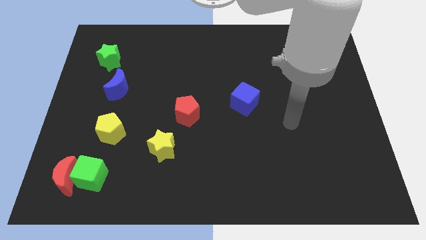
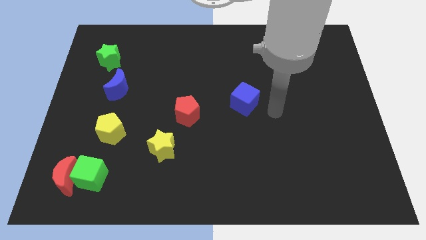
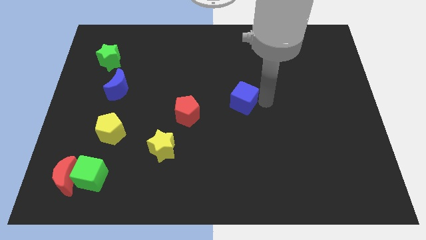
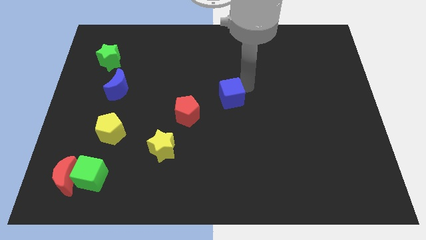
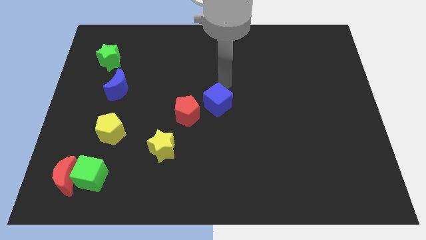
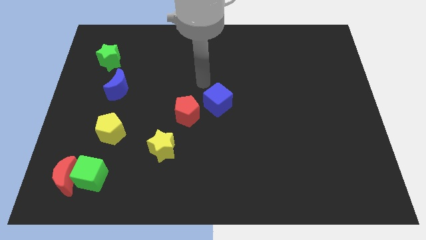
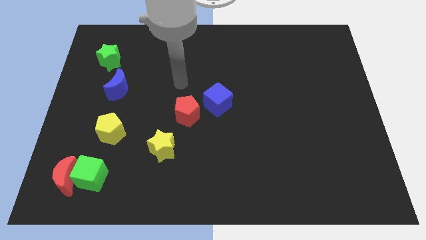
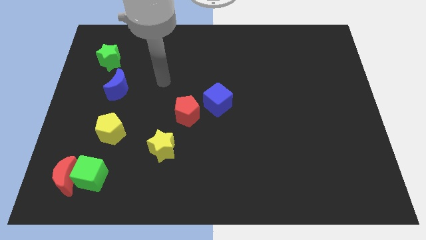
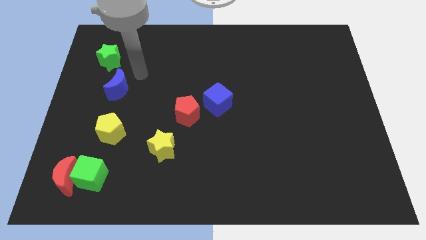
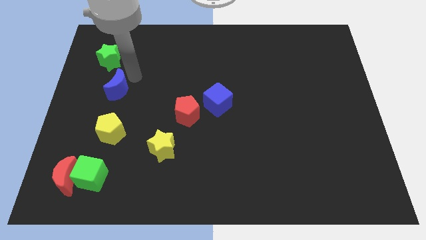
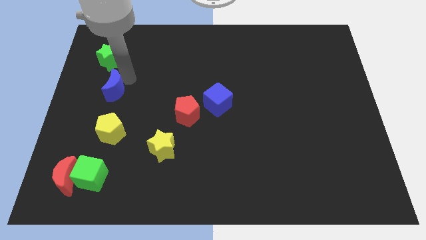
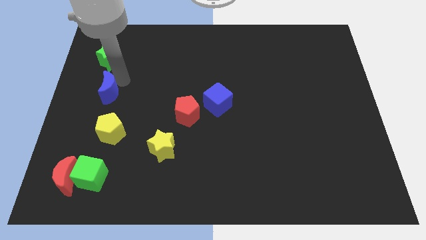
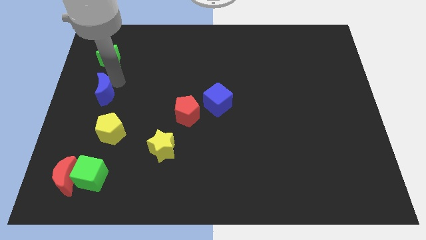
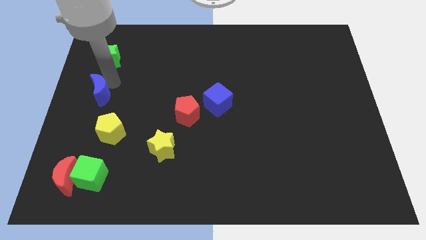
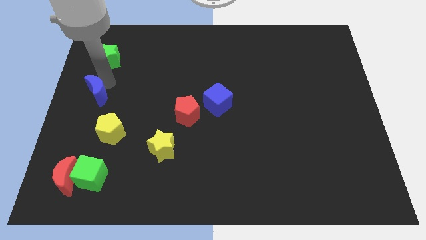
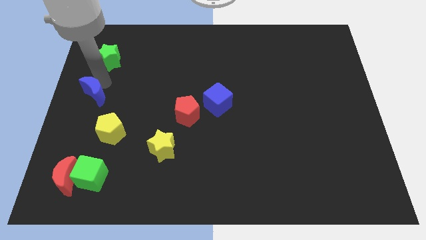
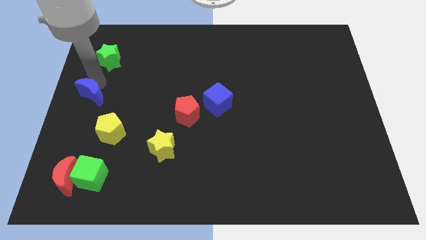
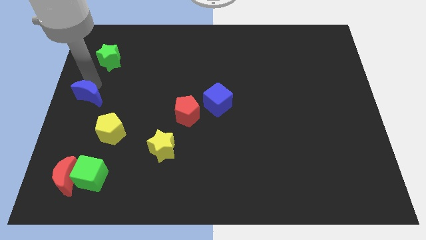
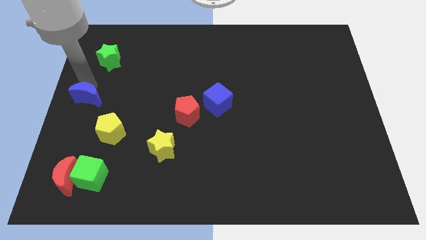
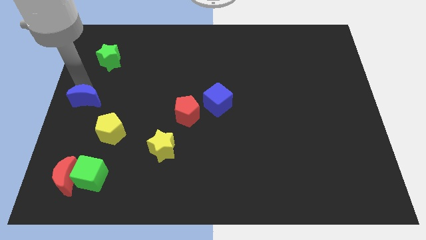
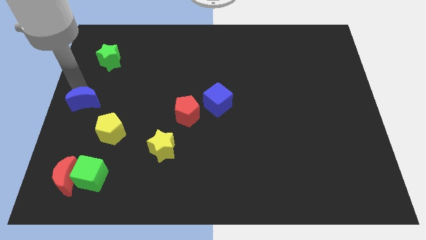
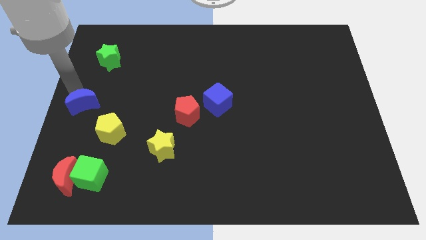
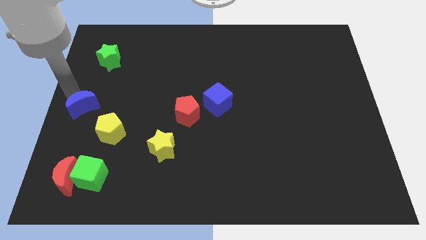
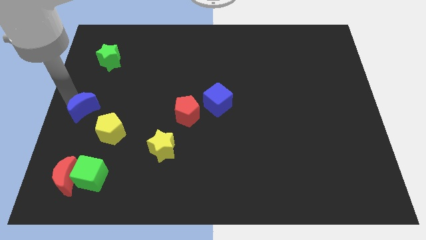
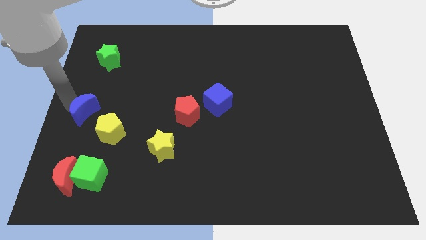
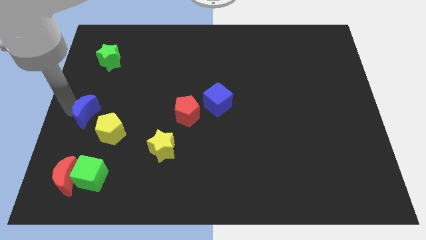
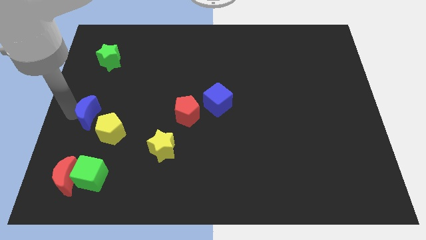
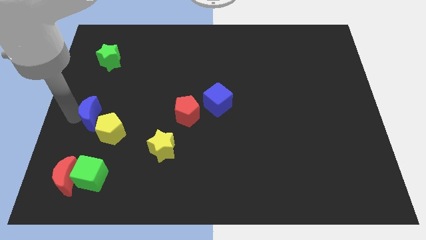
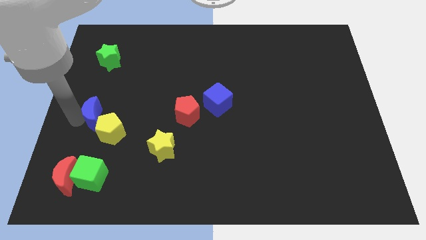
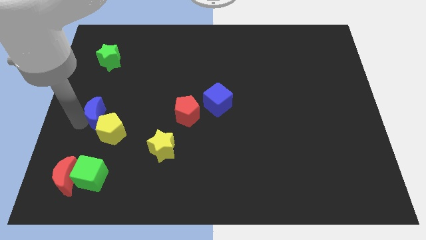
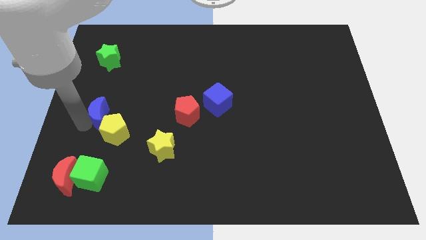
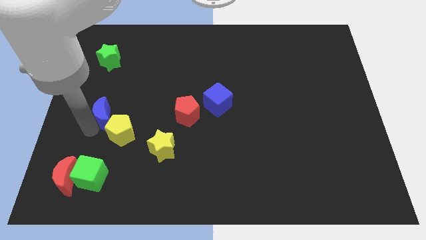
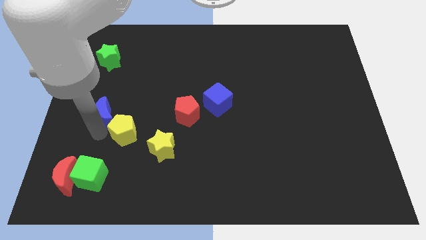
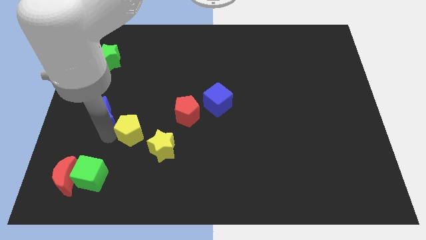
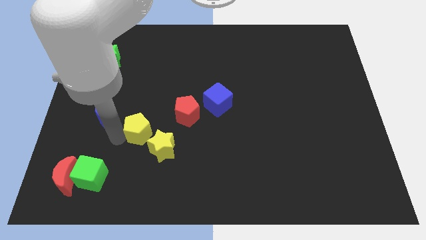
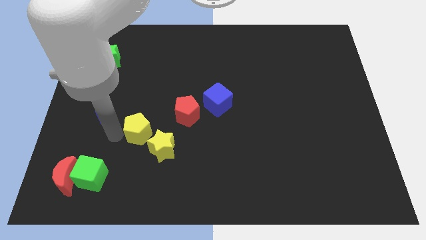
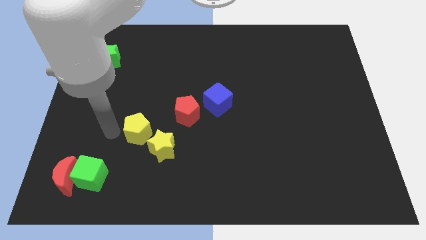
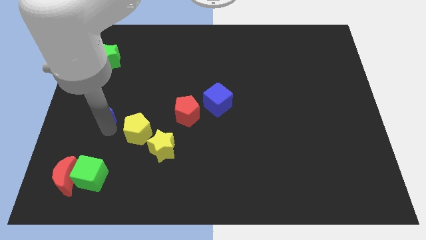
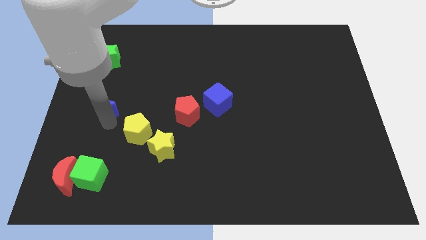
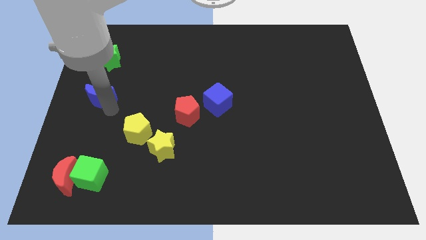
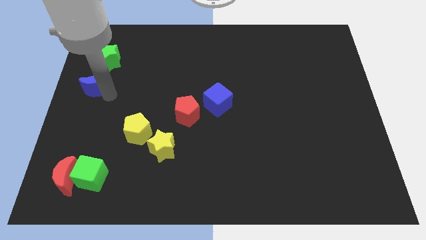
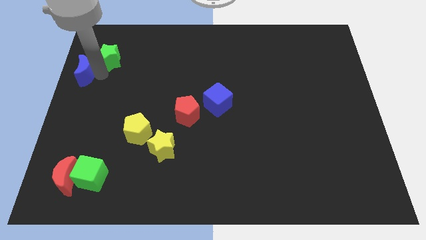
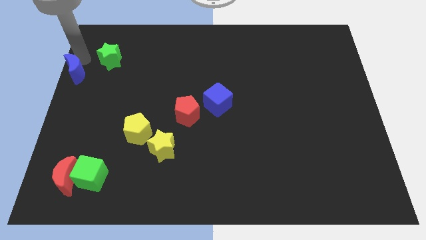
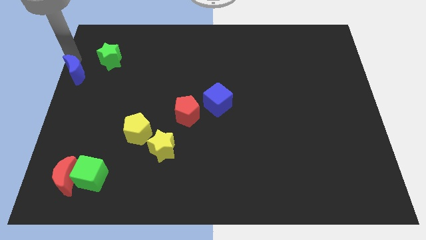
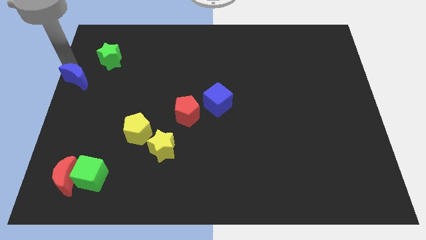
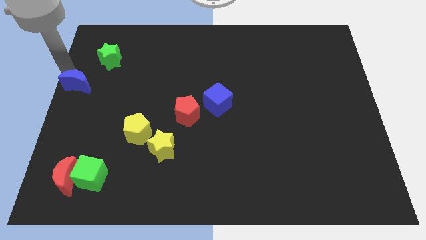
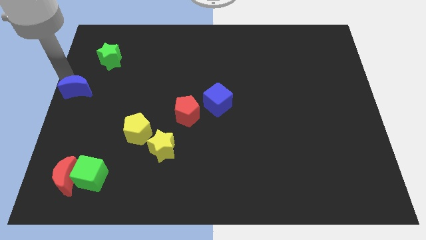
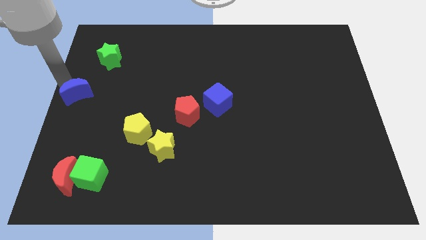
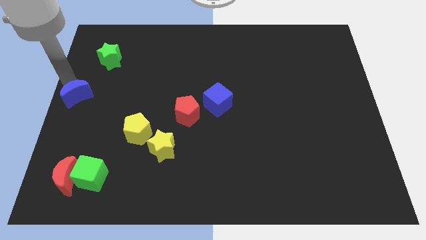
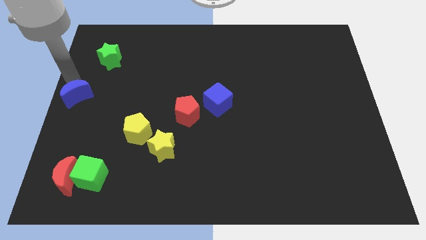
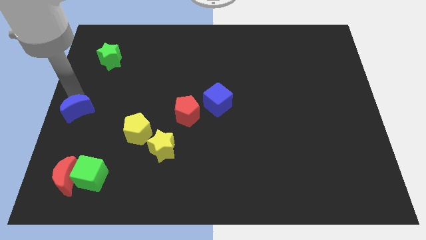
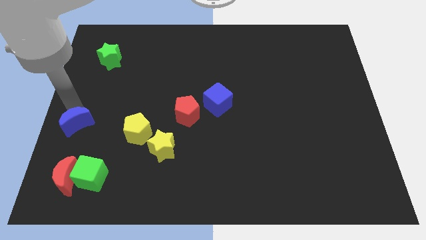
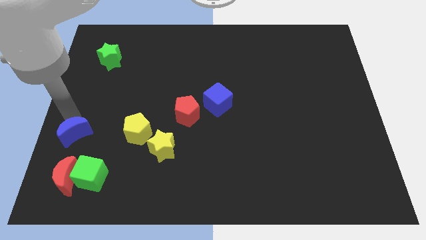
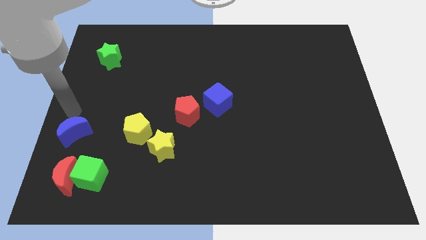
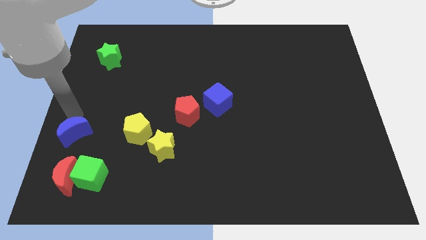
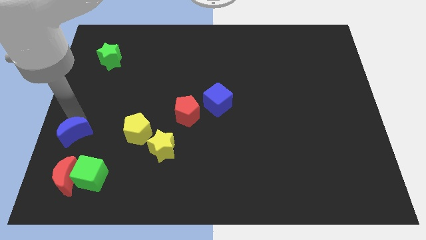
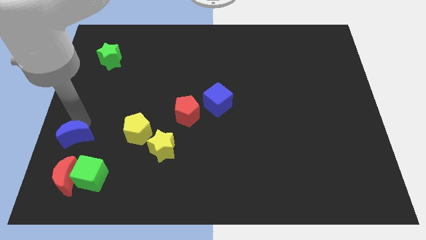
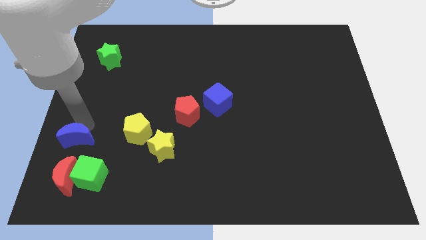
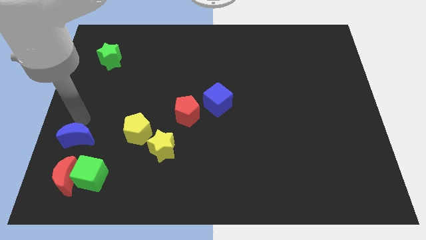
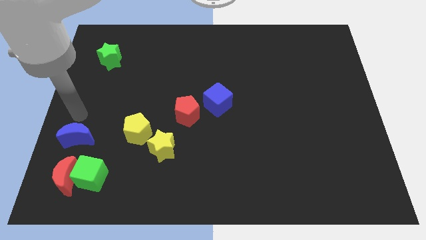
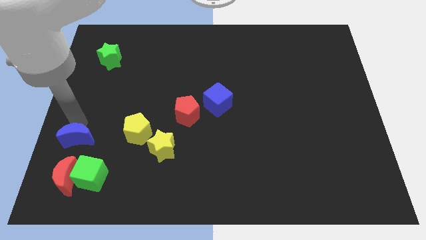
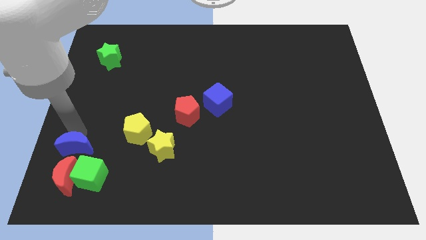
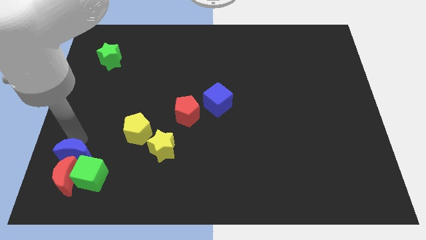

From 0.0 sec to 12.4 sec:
push the blue moon towards the red moon

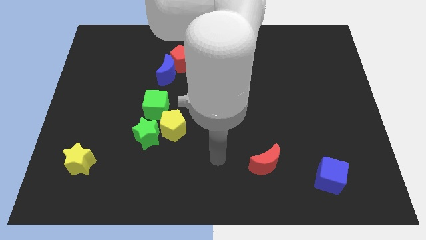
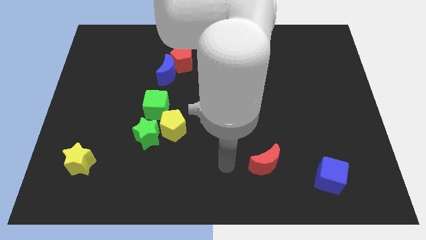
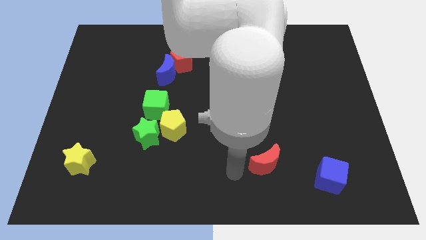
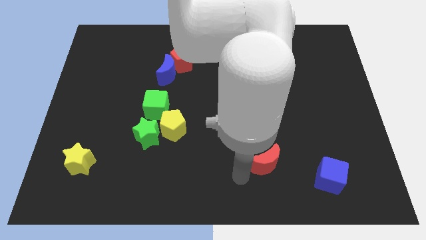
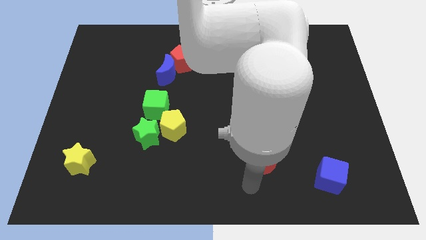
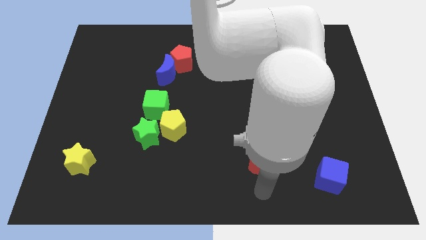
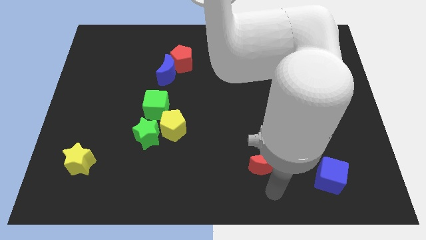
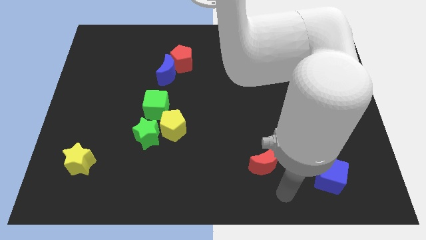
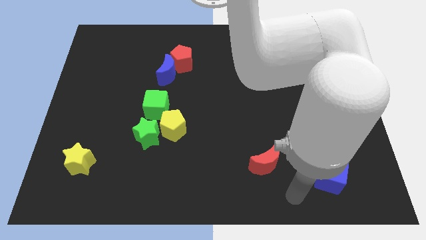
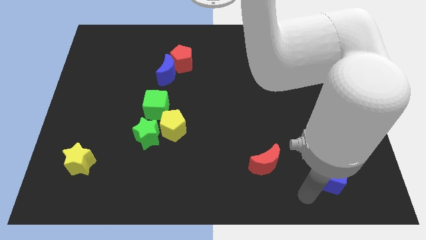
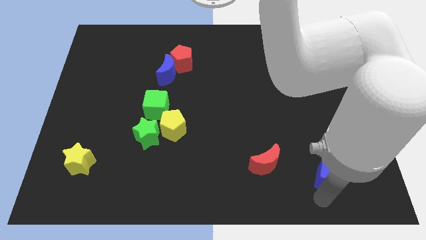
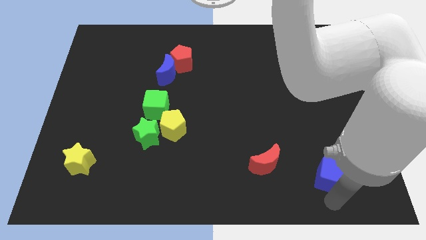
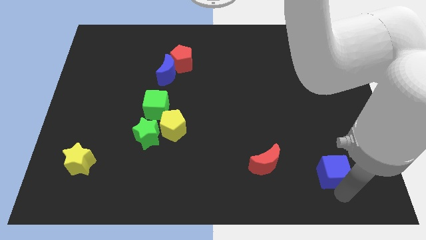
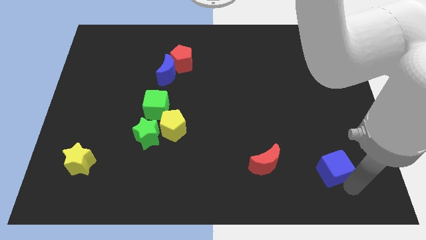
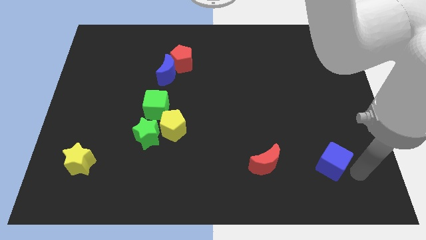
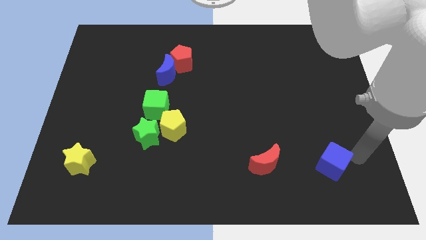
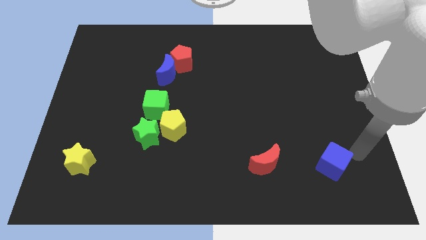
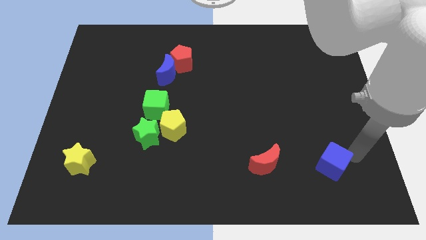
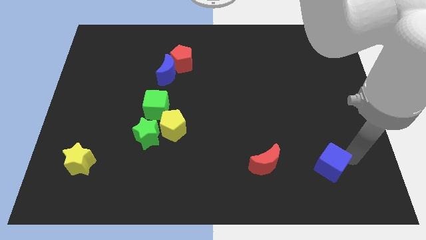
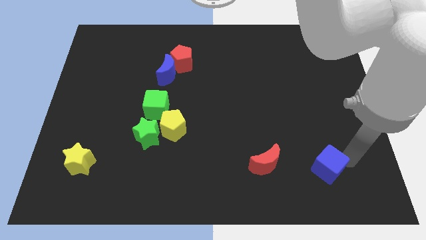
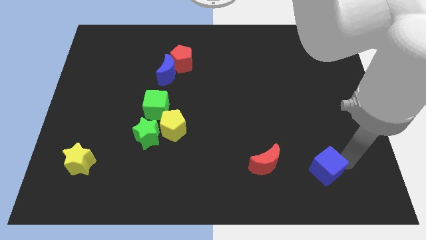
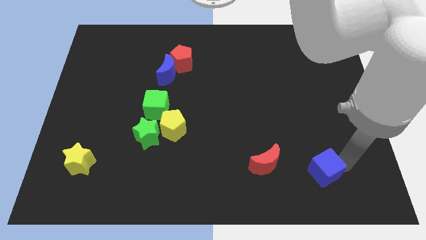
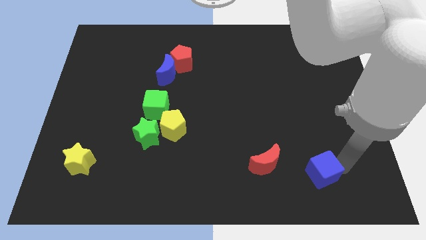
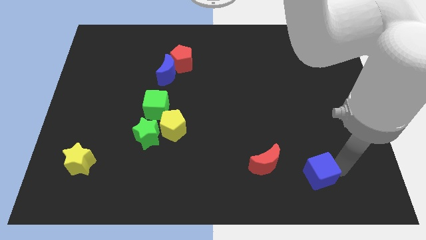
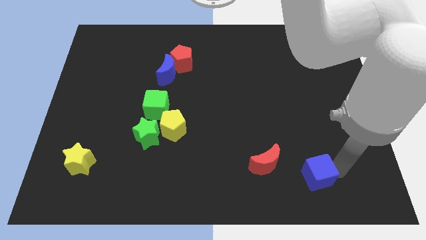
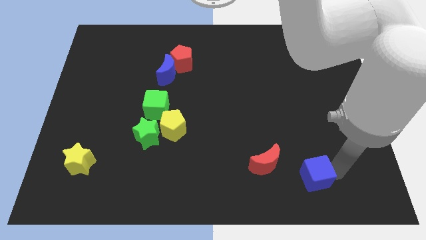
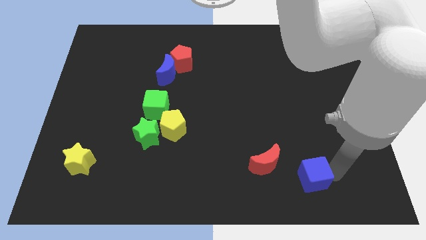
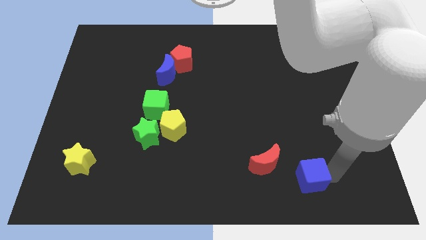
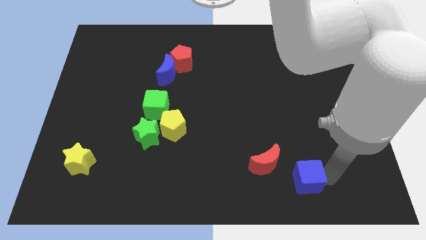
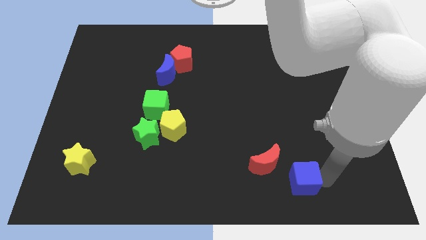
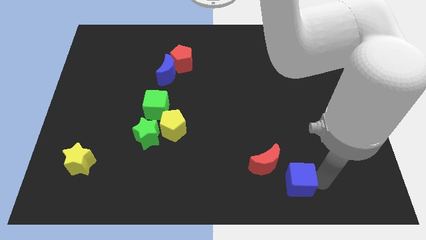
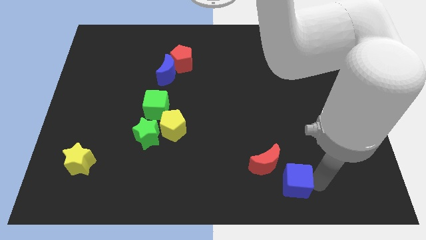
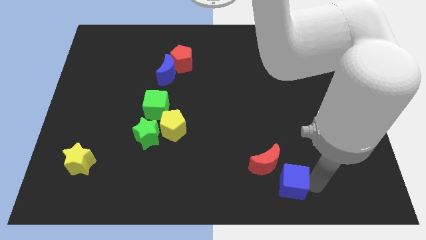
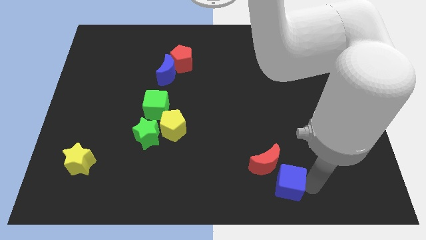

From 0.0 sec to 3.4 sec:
move the blue cube to the red moon
